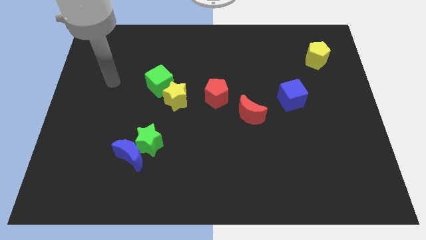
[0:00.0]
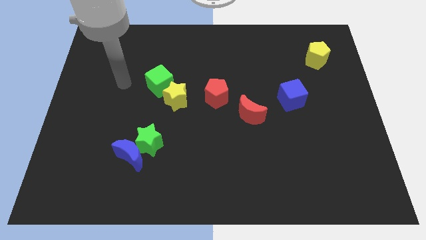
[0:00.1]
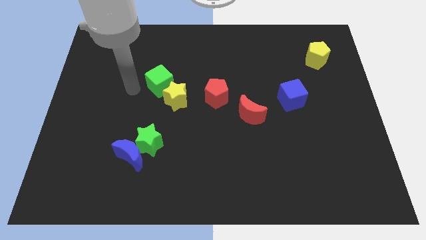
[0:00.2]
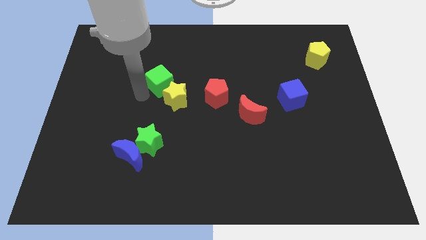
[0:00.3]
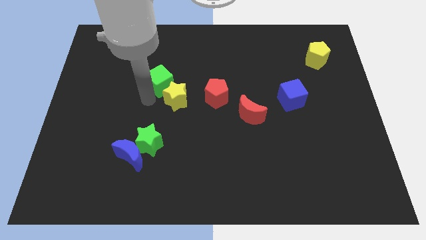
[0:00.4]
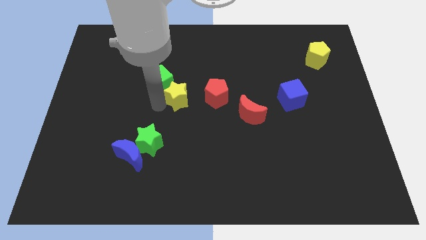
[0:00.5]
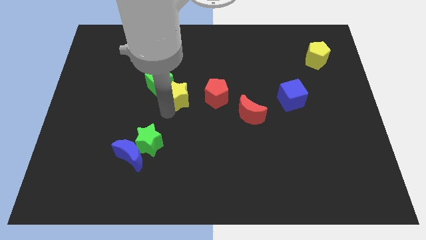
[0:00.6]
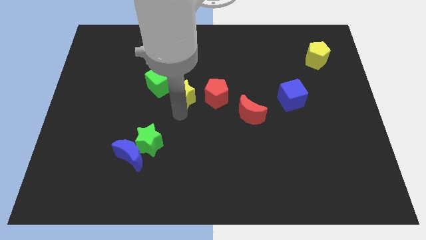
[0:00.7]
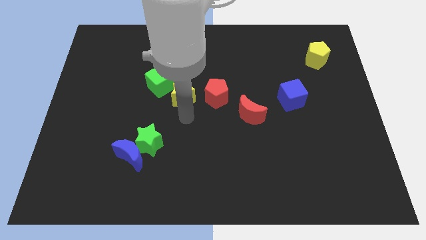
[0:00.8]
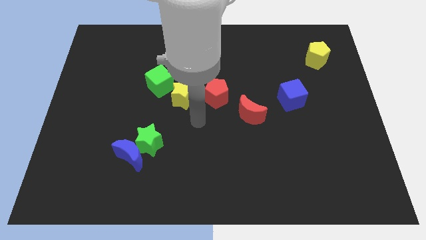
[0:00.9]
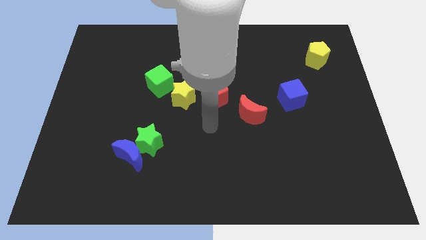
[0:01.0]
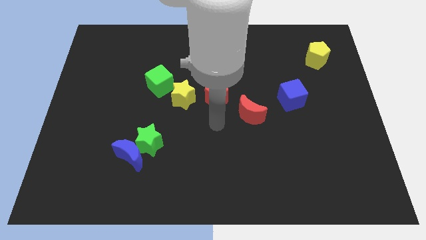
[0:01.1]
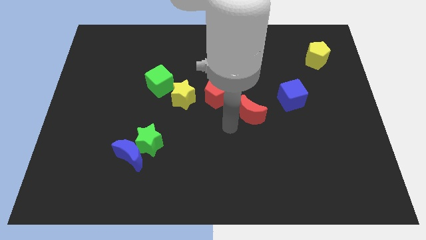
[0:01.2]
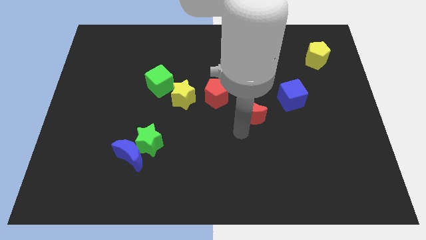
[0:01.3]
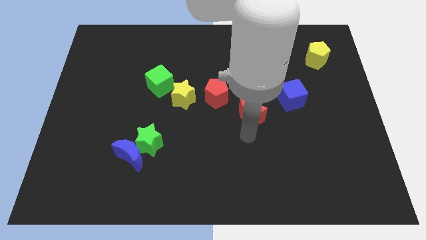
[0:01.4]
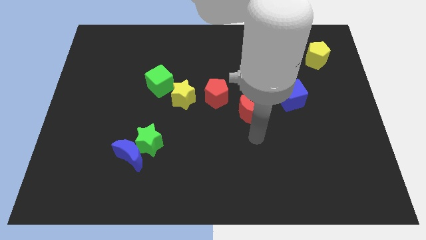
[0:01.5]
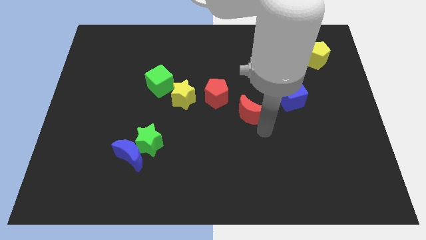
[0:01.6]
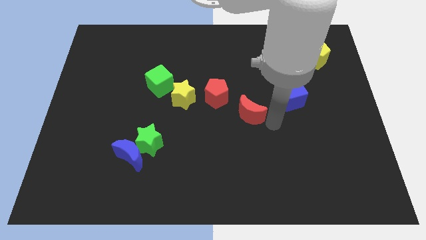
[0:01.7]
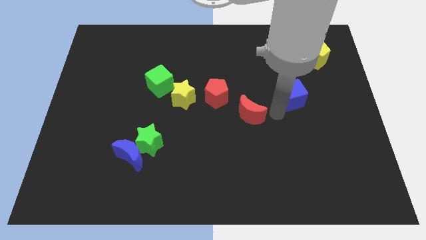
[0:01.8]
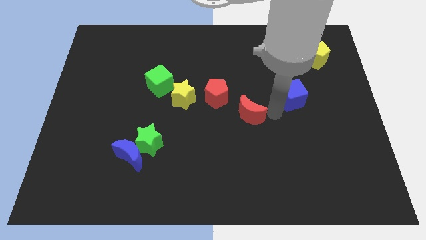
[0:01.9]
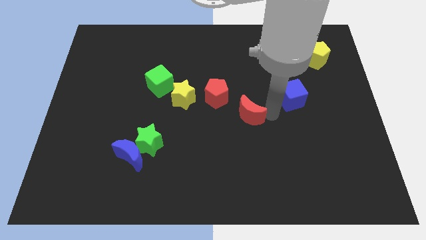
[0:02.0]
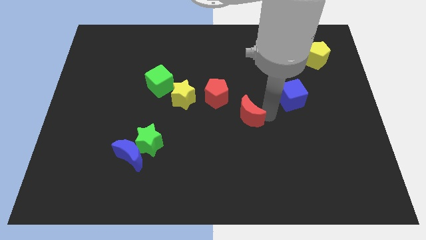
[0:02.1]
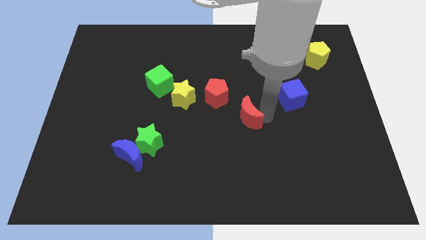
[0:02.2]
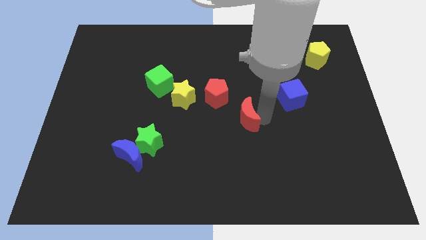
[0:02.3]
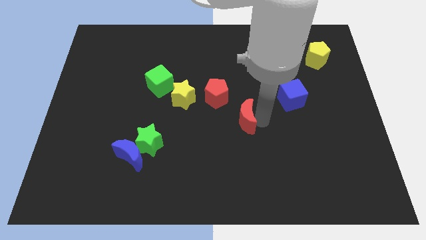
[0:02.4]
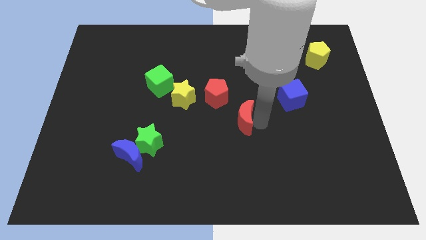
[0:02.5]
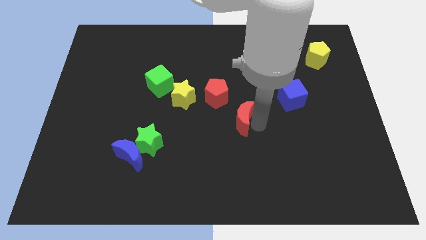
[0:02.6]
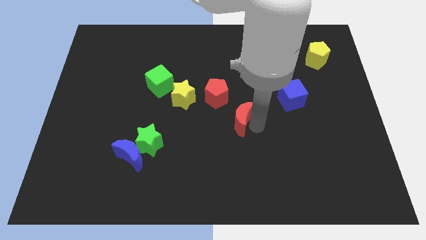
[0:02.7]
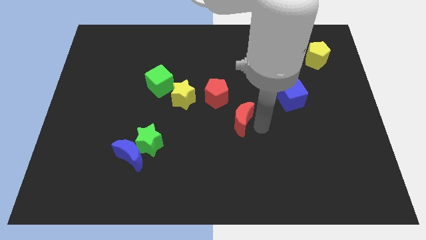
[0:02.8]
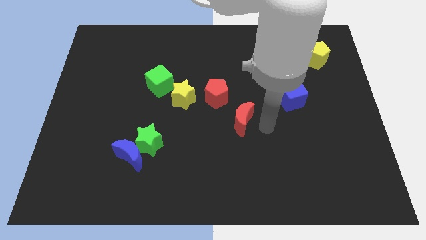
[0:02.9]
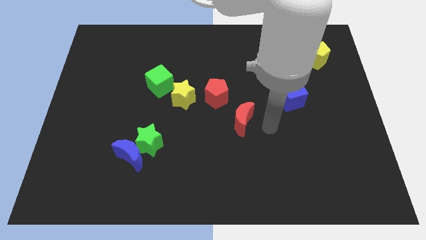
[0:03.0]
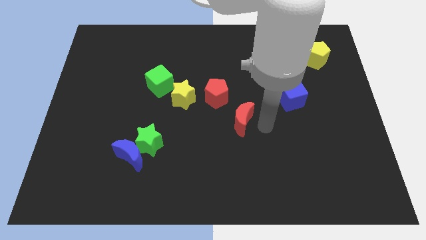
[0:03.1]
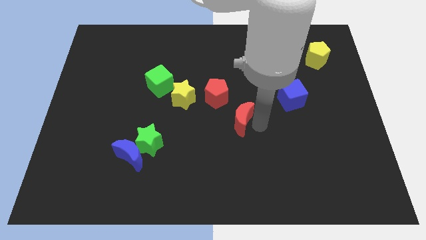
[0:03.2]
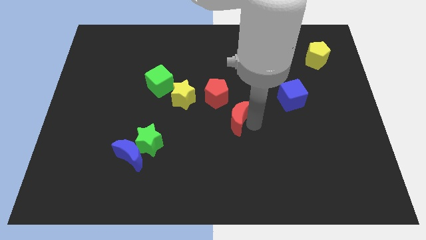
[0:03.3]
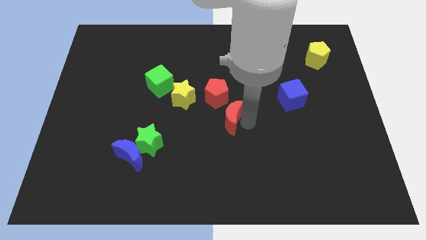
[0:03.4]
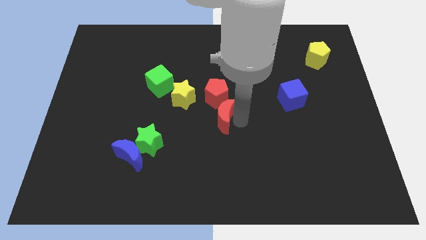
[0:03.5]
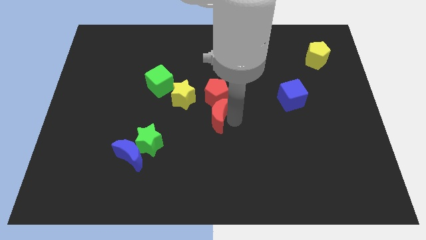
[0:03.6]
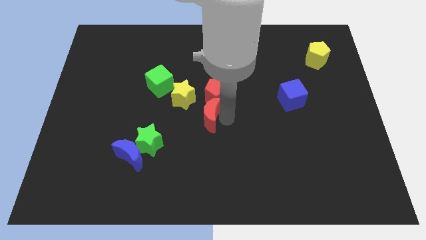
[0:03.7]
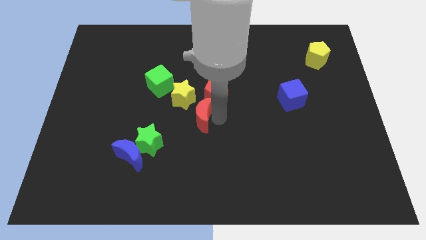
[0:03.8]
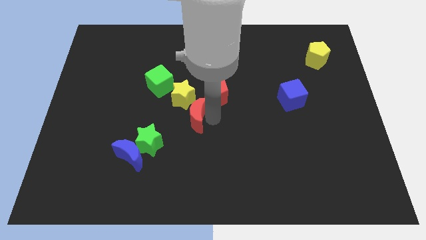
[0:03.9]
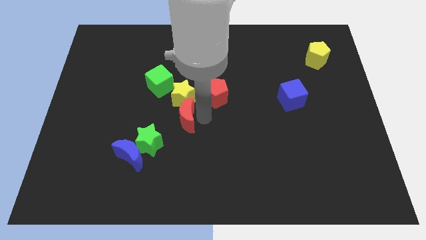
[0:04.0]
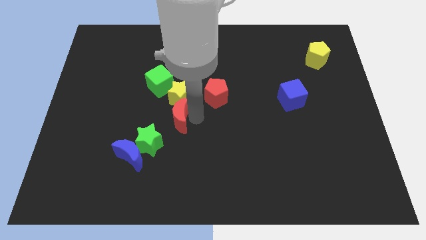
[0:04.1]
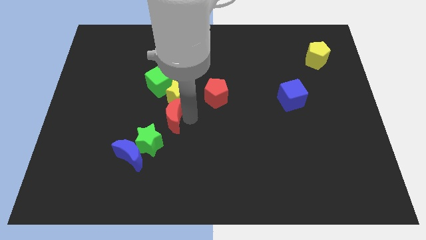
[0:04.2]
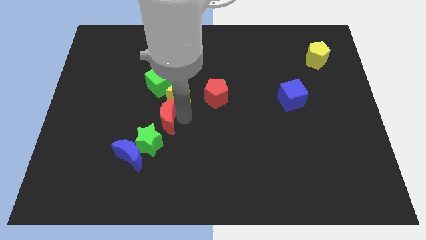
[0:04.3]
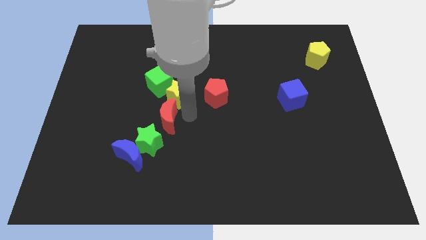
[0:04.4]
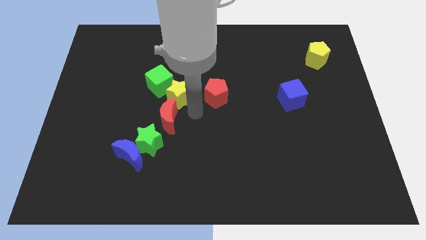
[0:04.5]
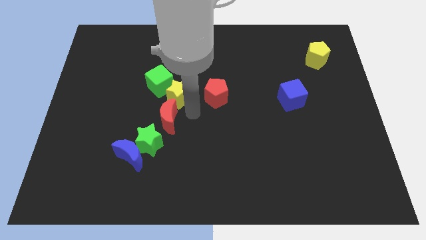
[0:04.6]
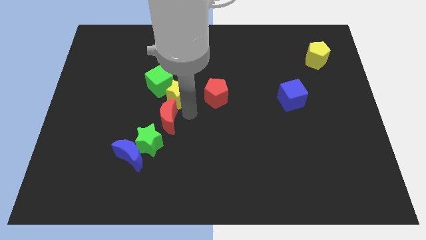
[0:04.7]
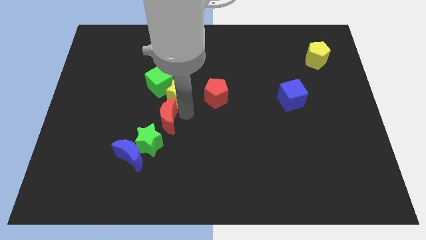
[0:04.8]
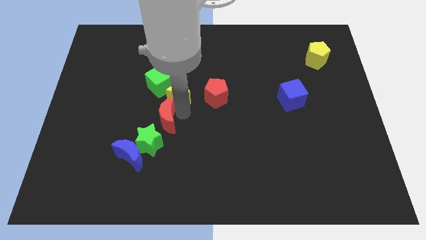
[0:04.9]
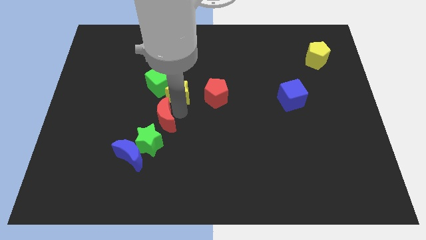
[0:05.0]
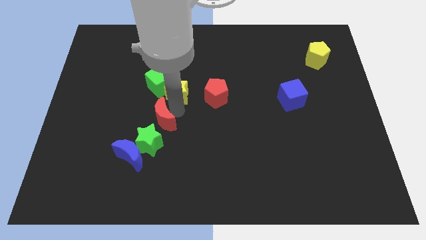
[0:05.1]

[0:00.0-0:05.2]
move the red moon to the left

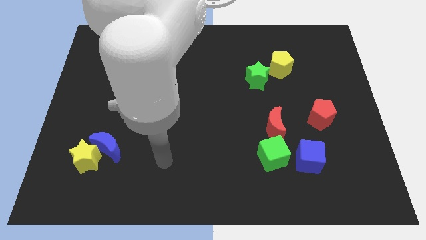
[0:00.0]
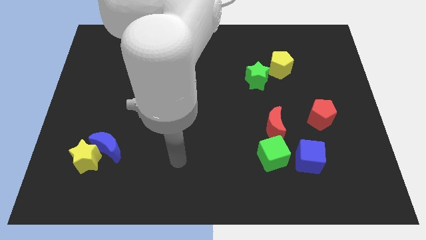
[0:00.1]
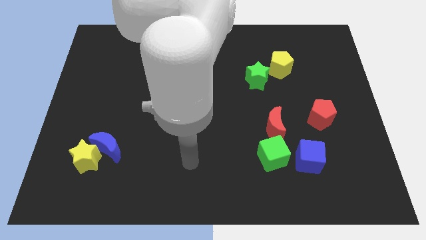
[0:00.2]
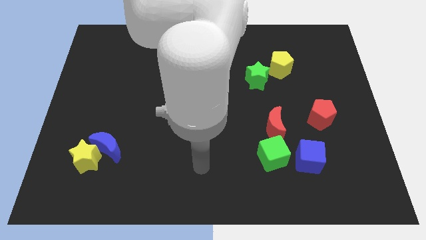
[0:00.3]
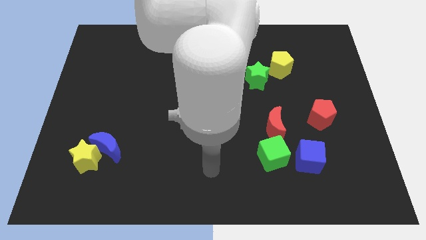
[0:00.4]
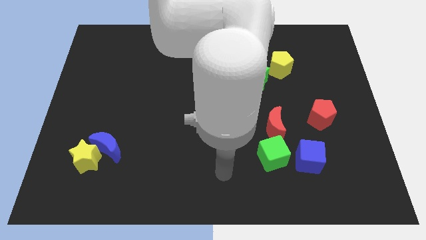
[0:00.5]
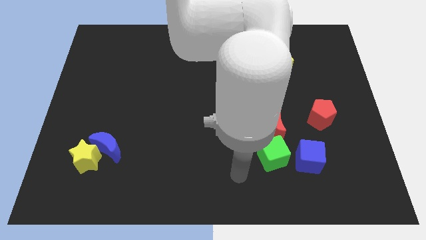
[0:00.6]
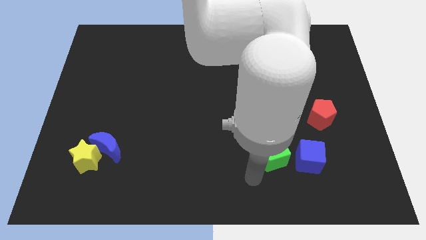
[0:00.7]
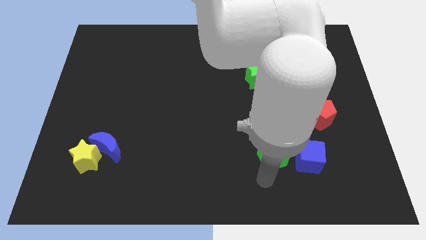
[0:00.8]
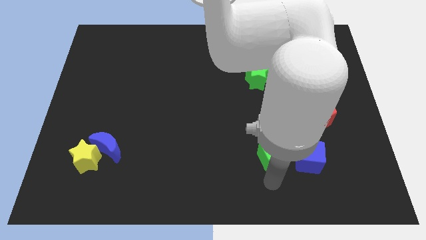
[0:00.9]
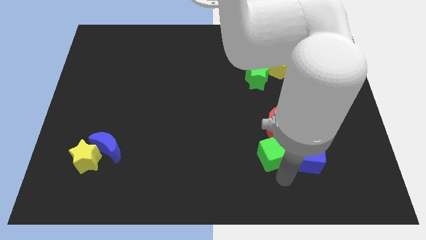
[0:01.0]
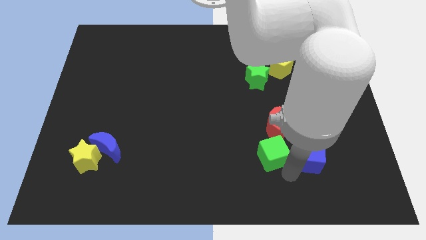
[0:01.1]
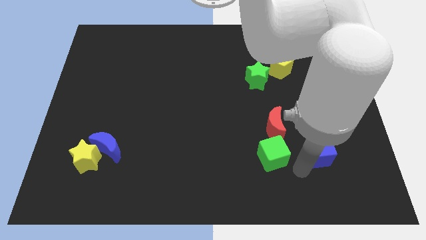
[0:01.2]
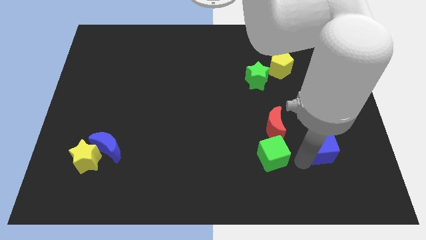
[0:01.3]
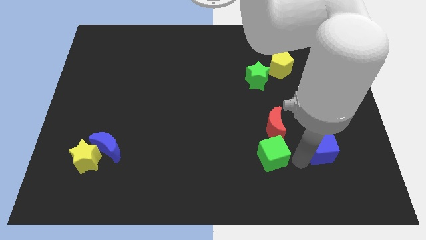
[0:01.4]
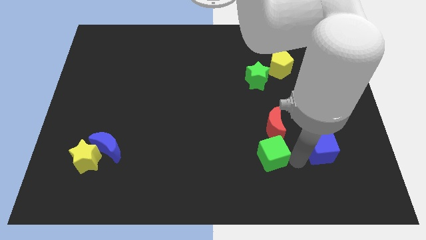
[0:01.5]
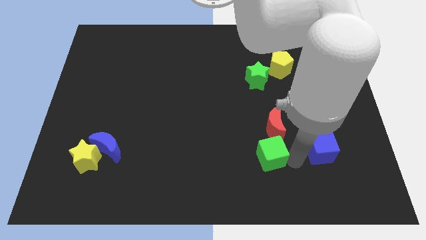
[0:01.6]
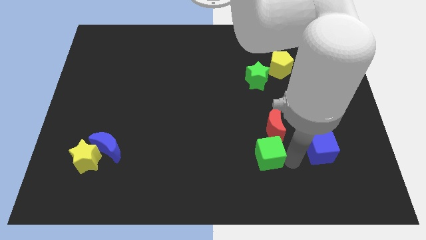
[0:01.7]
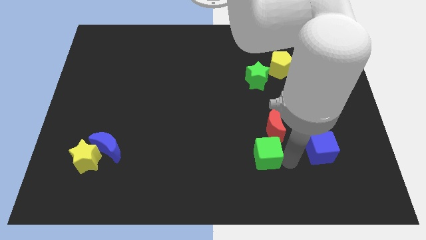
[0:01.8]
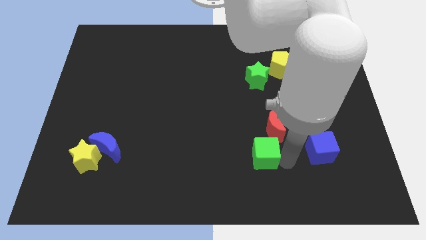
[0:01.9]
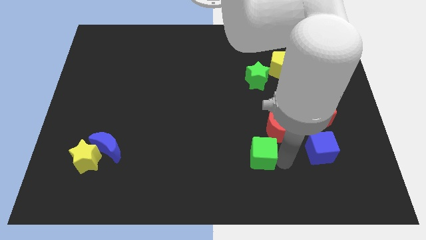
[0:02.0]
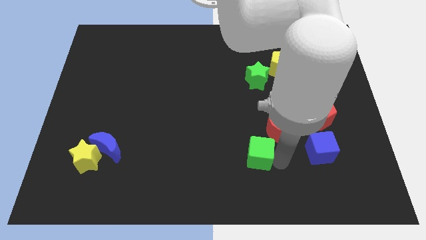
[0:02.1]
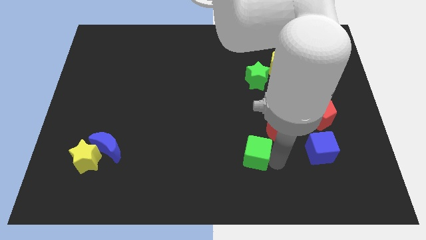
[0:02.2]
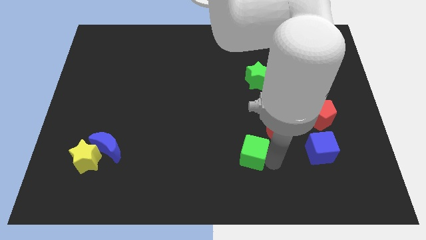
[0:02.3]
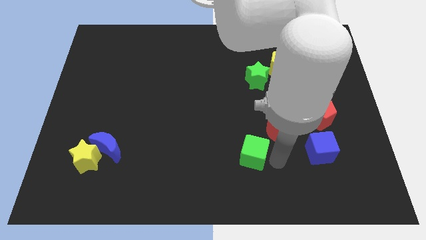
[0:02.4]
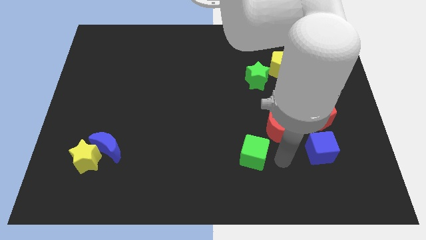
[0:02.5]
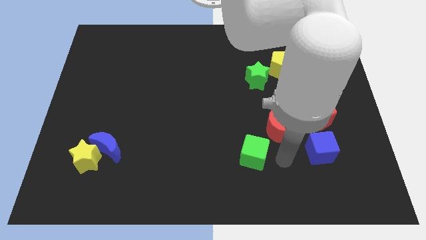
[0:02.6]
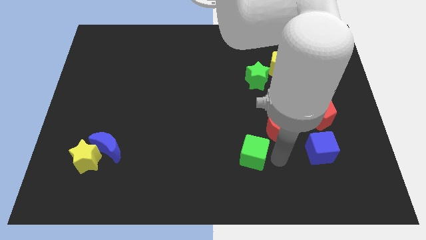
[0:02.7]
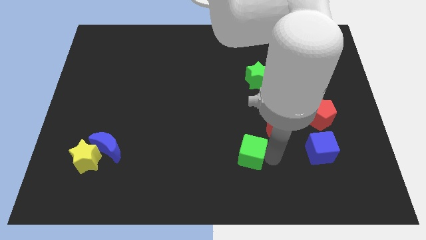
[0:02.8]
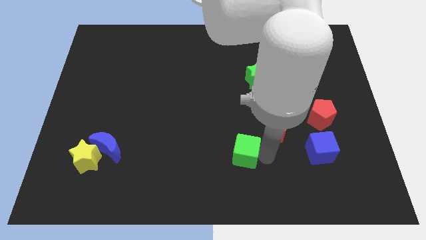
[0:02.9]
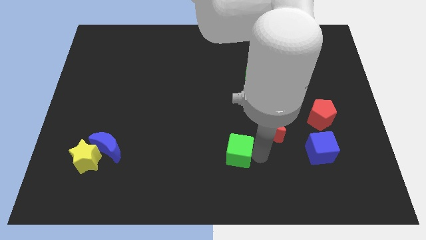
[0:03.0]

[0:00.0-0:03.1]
slide the green cube to the left somewhat
